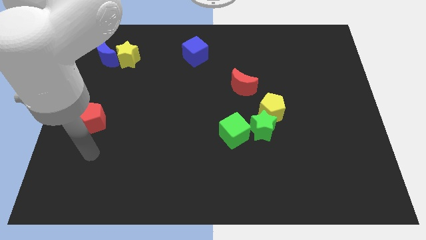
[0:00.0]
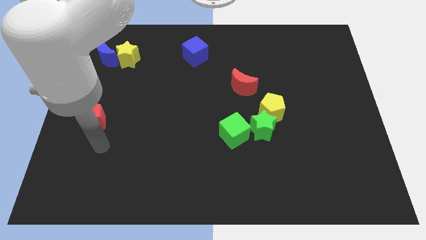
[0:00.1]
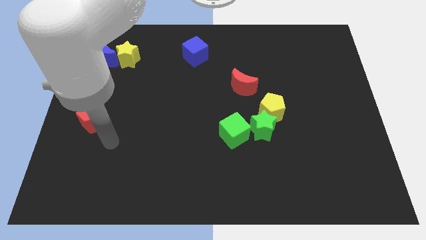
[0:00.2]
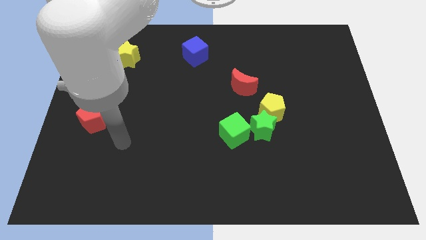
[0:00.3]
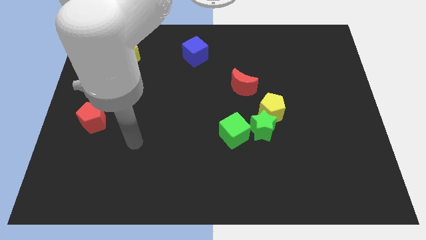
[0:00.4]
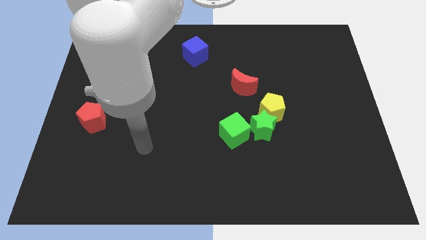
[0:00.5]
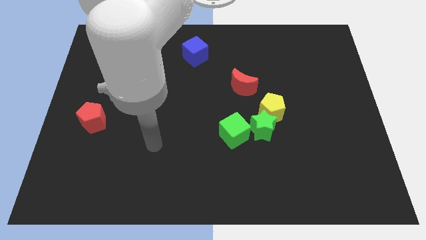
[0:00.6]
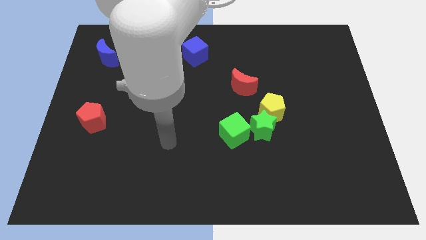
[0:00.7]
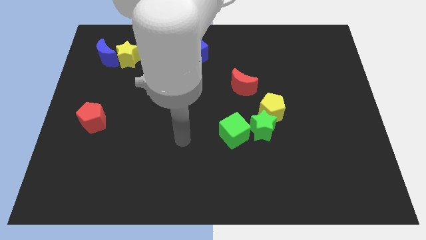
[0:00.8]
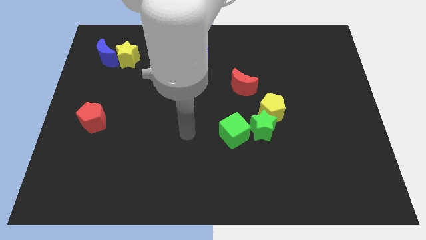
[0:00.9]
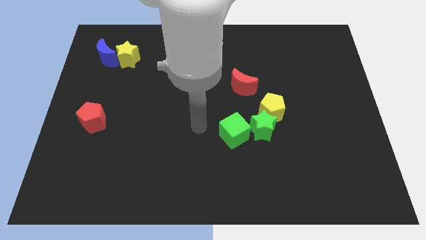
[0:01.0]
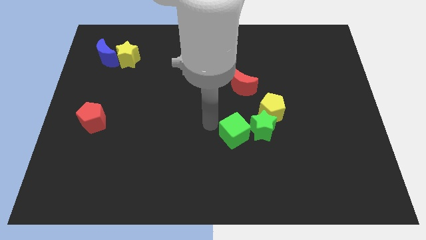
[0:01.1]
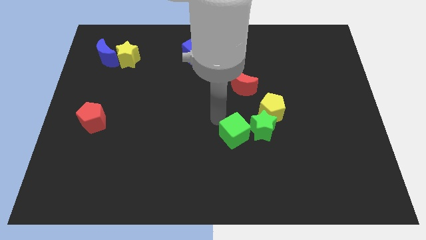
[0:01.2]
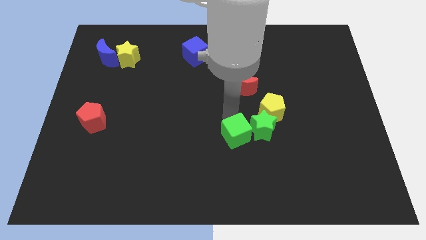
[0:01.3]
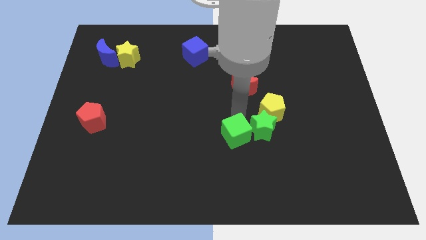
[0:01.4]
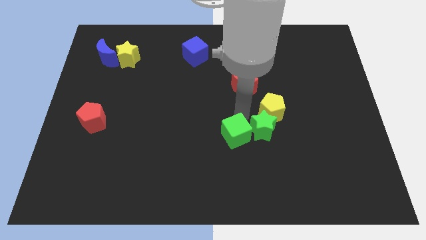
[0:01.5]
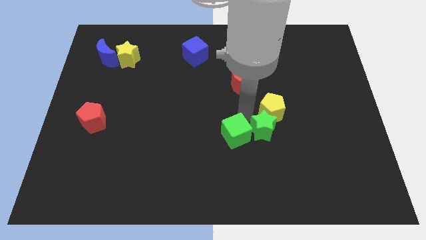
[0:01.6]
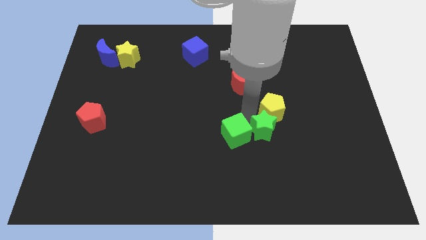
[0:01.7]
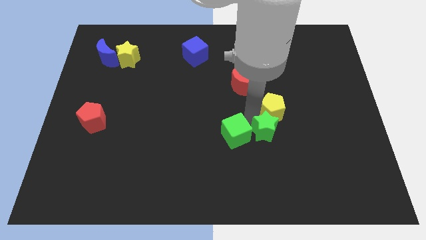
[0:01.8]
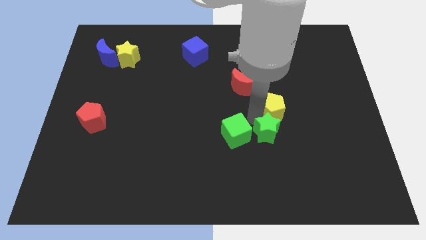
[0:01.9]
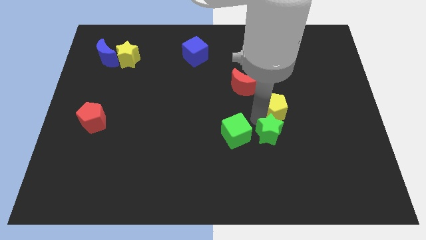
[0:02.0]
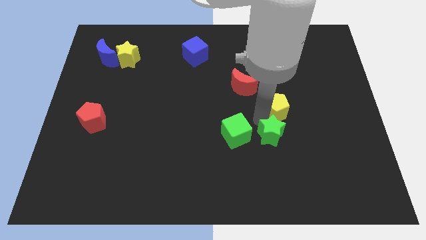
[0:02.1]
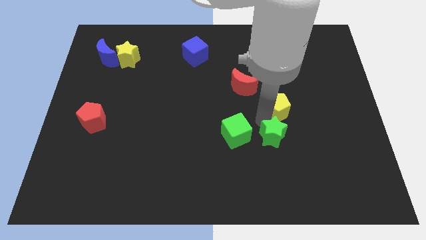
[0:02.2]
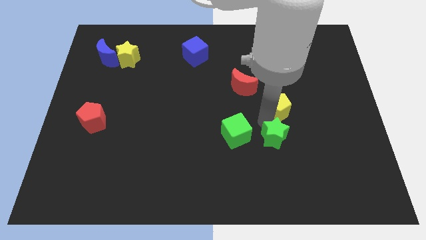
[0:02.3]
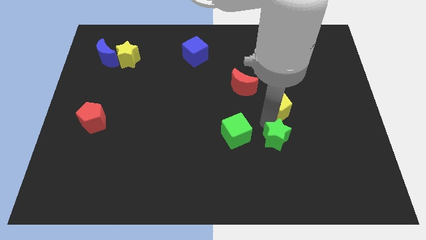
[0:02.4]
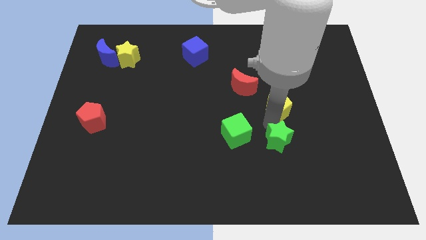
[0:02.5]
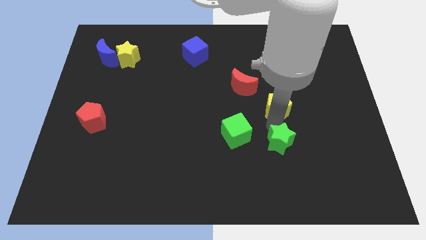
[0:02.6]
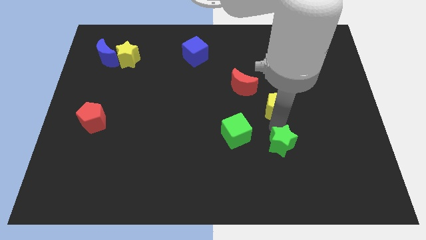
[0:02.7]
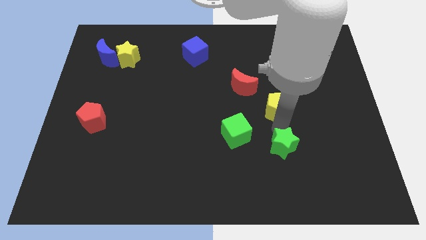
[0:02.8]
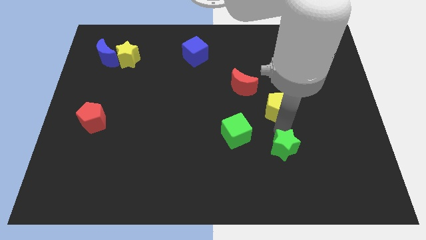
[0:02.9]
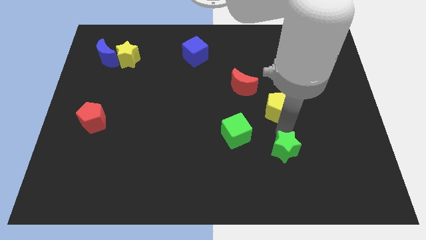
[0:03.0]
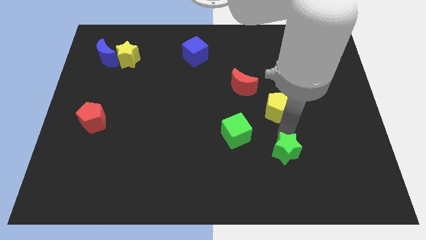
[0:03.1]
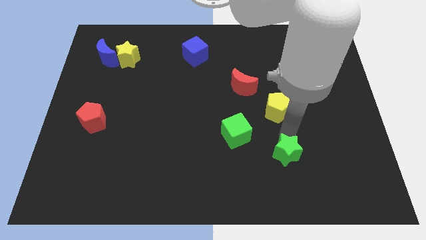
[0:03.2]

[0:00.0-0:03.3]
separate the green star from the yellow pentagon and green cube

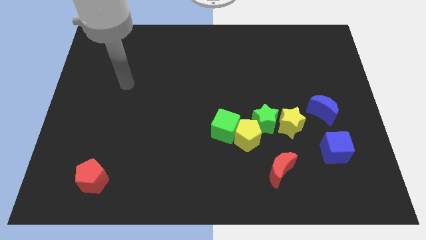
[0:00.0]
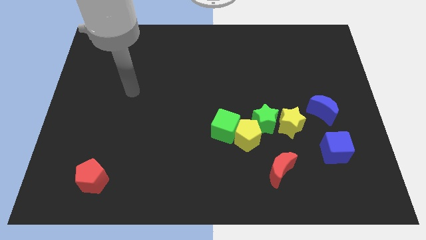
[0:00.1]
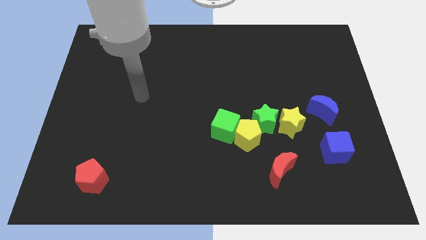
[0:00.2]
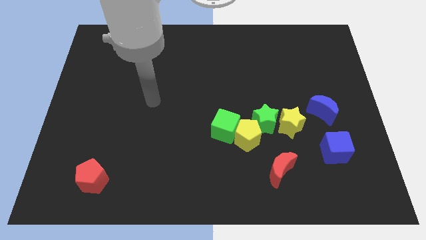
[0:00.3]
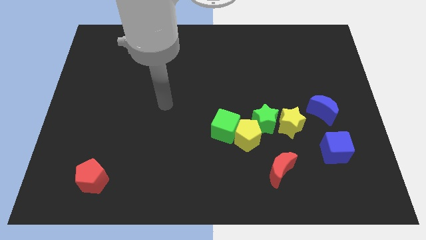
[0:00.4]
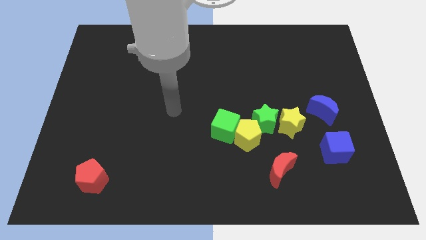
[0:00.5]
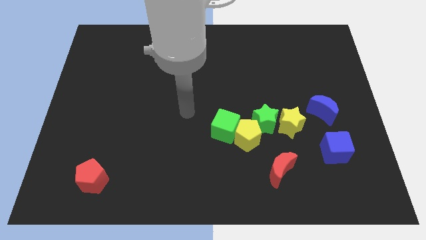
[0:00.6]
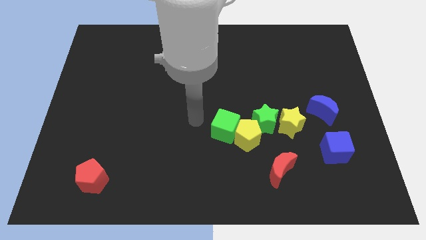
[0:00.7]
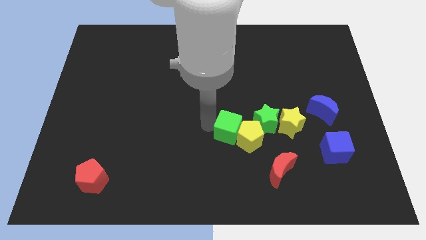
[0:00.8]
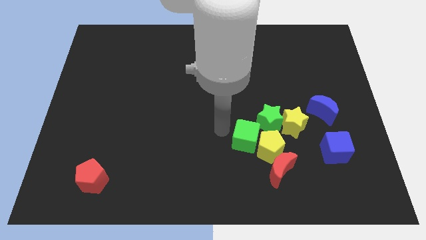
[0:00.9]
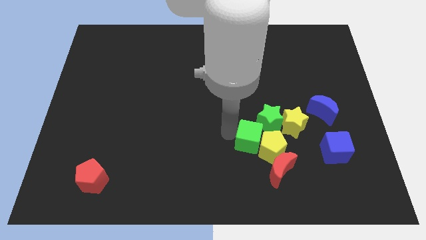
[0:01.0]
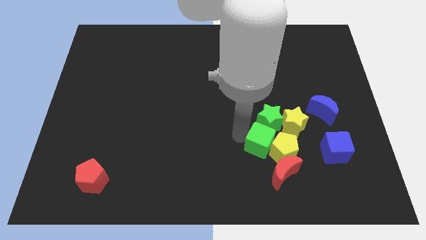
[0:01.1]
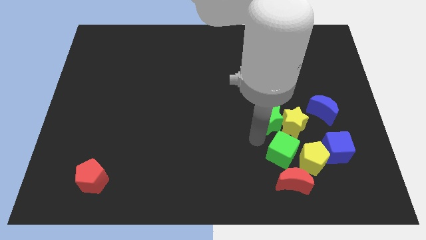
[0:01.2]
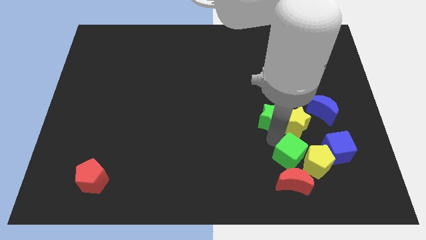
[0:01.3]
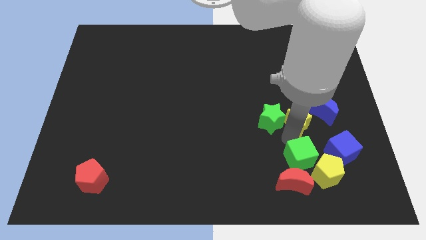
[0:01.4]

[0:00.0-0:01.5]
pull the green star apart from the yellow star, yellow pentagon, and green cube

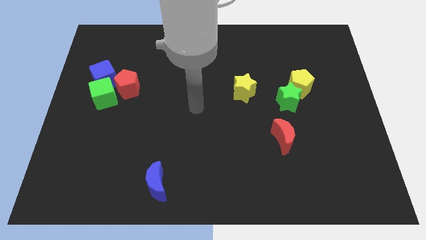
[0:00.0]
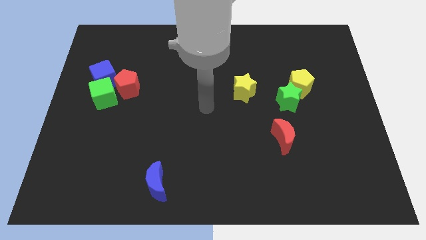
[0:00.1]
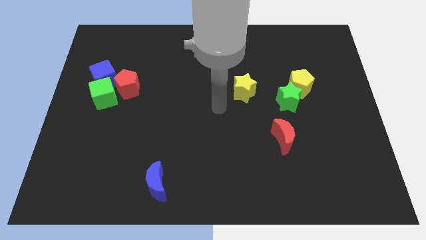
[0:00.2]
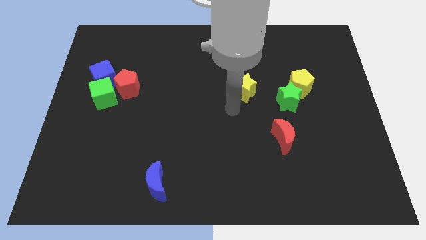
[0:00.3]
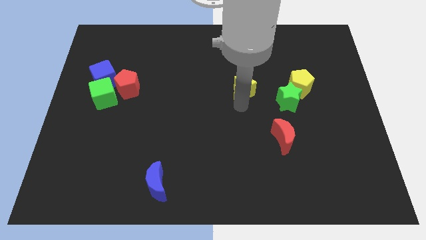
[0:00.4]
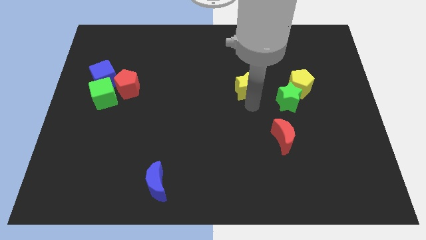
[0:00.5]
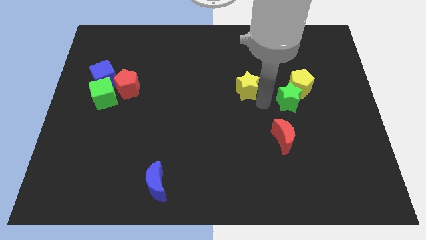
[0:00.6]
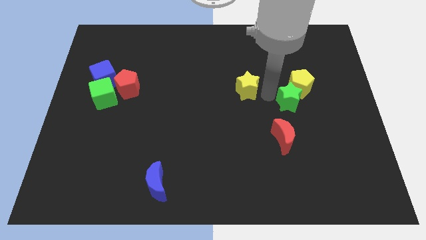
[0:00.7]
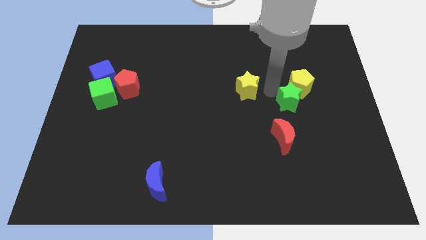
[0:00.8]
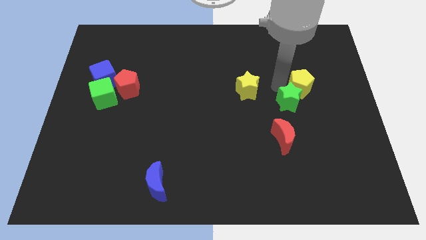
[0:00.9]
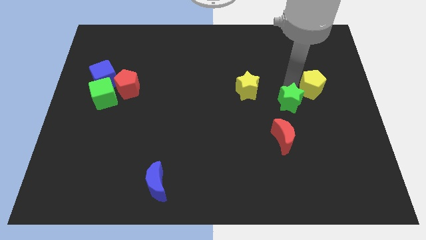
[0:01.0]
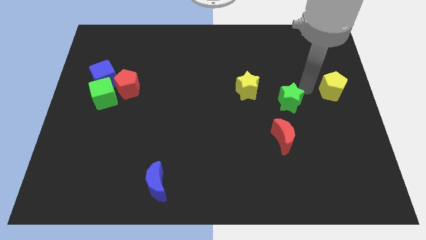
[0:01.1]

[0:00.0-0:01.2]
separate the green star from the yellow pentagon

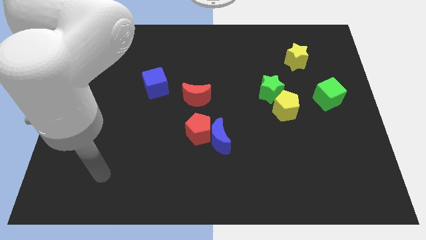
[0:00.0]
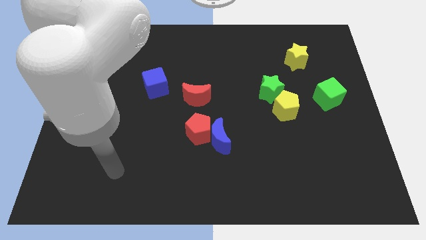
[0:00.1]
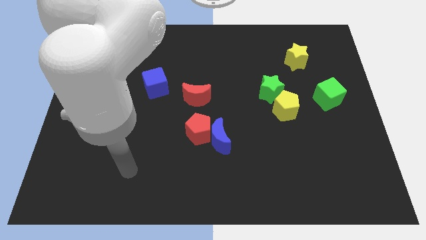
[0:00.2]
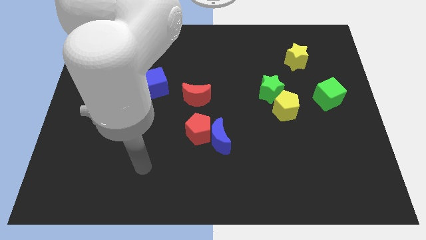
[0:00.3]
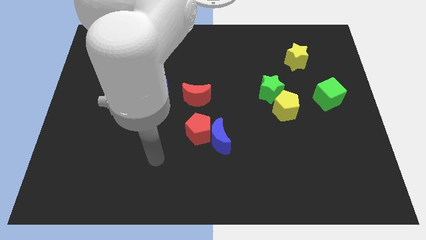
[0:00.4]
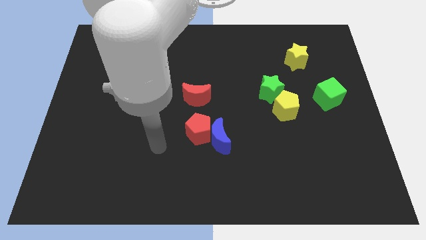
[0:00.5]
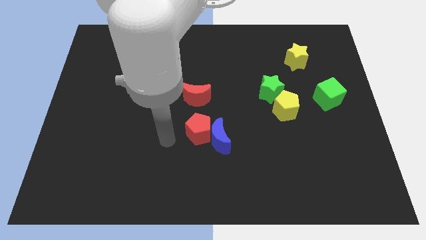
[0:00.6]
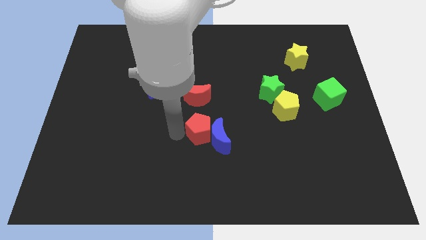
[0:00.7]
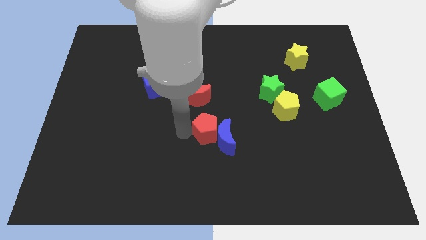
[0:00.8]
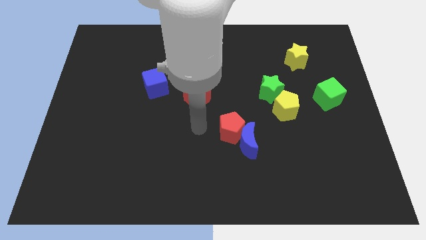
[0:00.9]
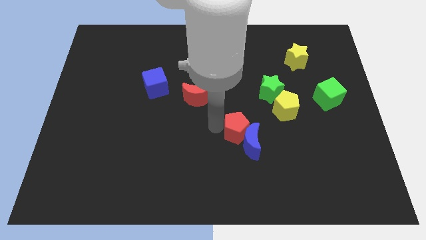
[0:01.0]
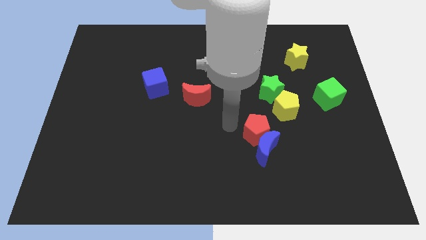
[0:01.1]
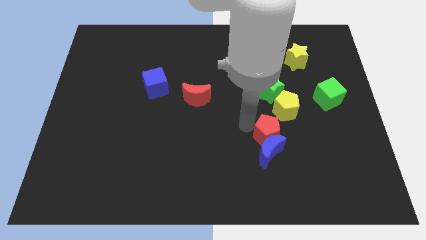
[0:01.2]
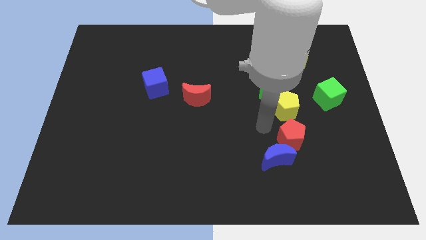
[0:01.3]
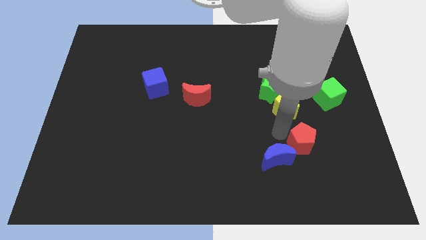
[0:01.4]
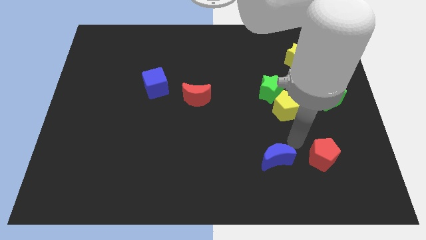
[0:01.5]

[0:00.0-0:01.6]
pull the blue moon apart from the red pentagon

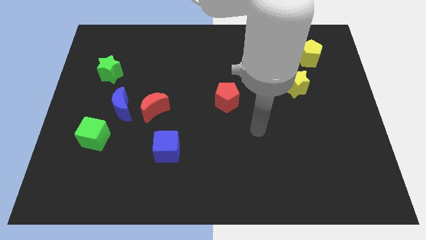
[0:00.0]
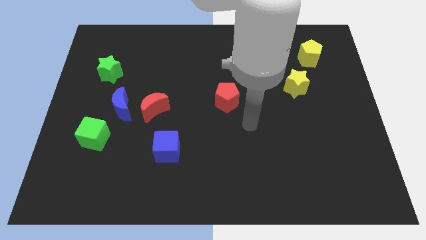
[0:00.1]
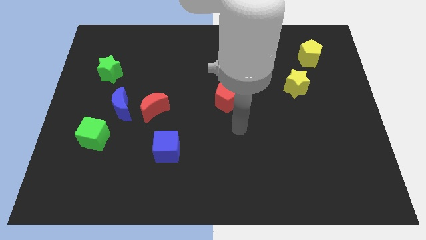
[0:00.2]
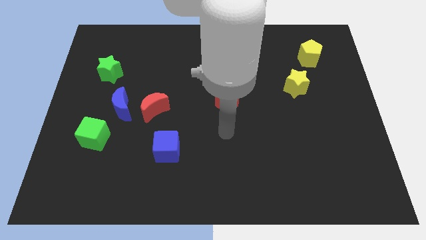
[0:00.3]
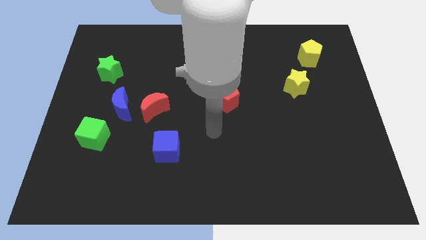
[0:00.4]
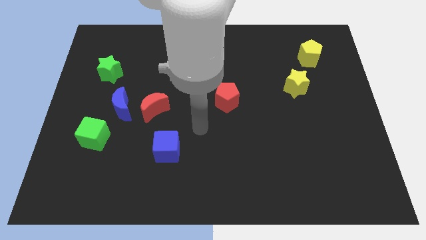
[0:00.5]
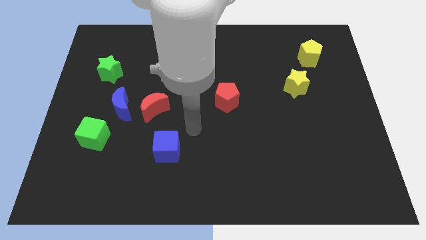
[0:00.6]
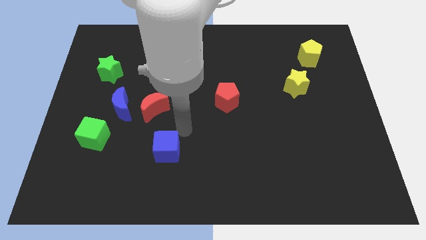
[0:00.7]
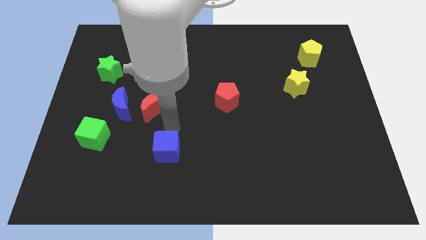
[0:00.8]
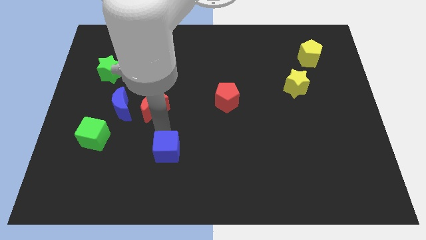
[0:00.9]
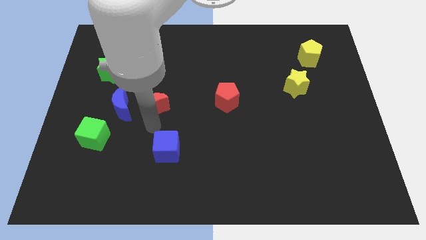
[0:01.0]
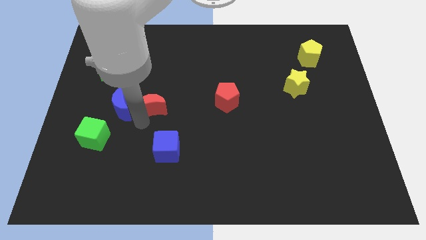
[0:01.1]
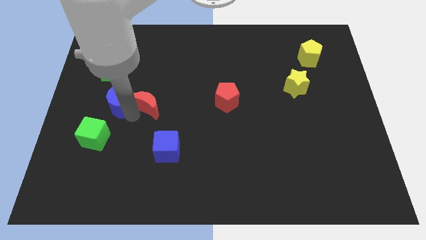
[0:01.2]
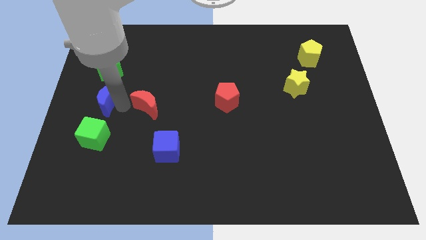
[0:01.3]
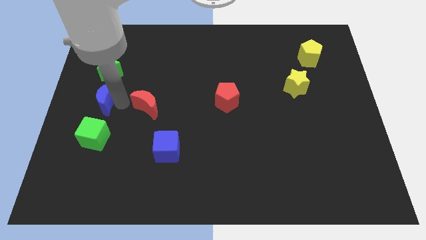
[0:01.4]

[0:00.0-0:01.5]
move the red moon away from the blue moon

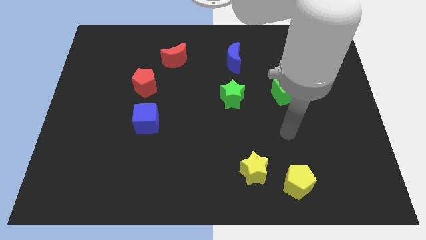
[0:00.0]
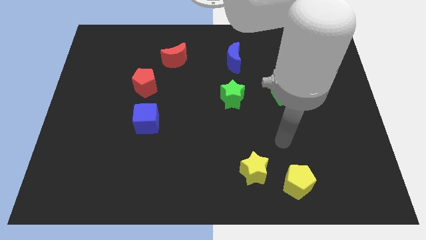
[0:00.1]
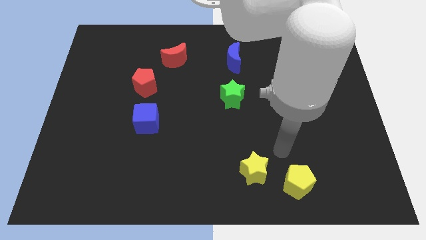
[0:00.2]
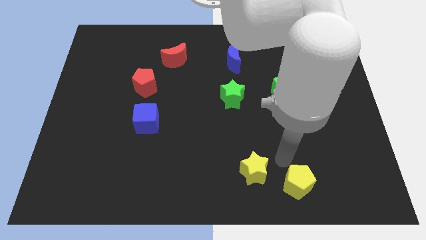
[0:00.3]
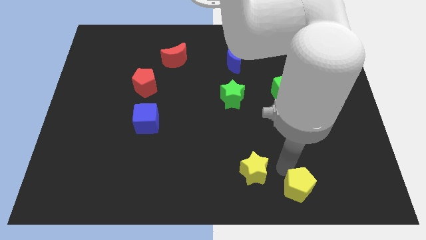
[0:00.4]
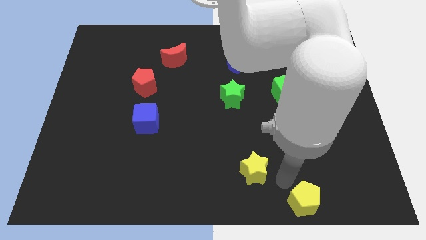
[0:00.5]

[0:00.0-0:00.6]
move the yellow star away from the yellow pentagon
